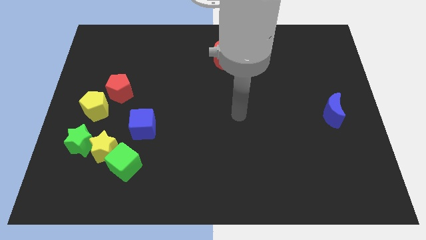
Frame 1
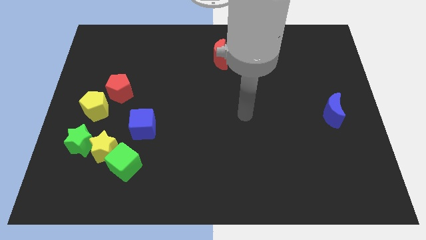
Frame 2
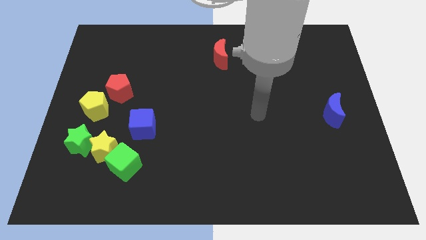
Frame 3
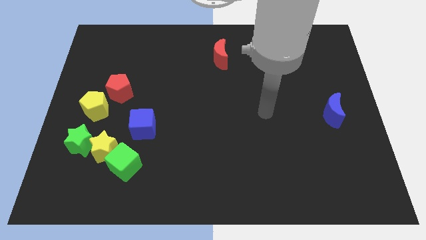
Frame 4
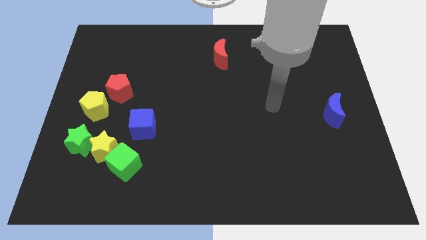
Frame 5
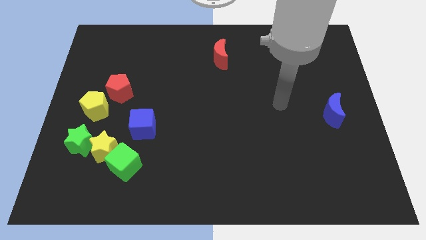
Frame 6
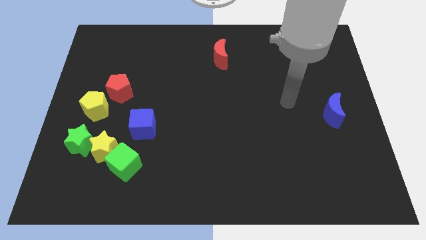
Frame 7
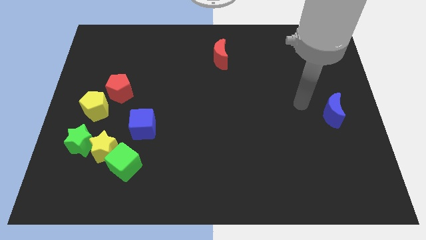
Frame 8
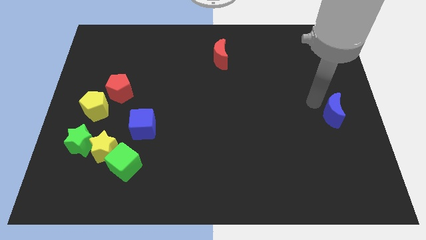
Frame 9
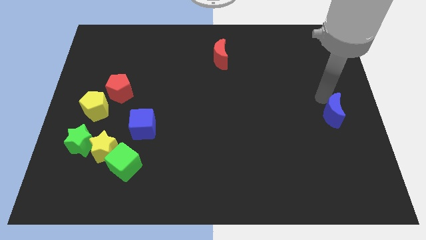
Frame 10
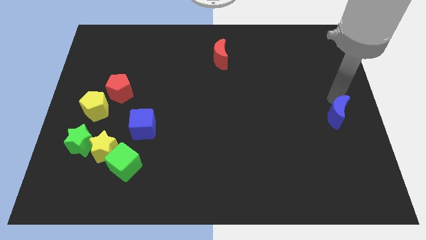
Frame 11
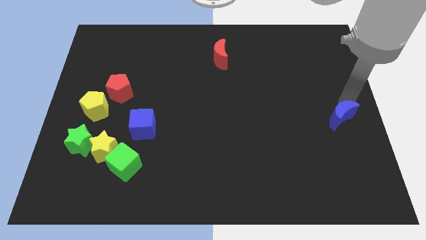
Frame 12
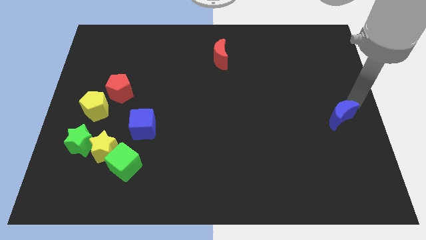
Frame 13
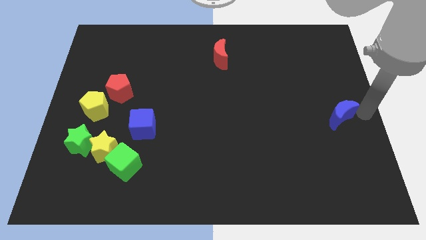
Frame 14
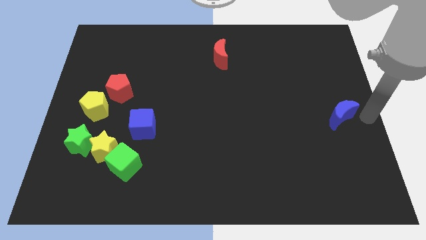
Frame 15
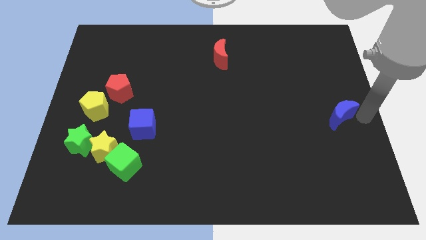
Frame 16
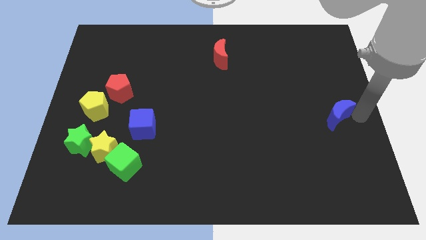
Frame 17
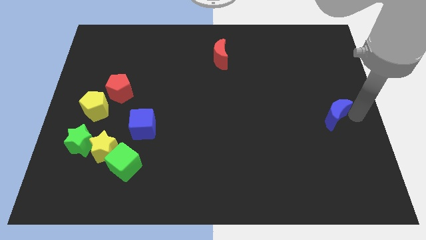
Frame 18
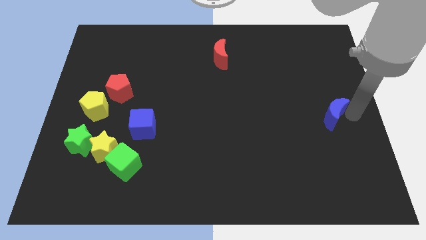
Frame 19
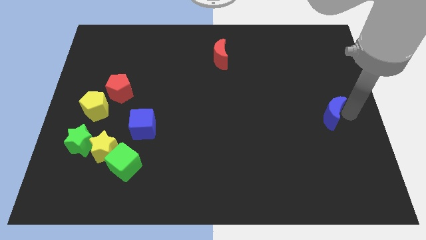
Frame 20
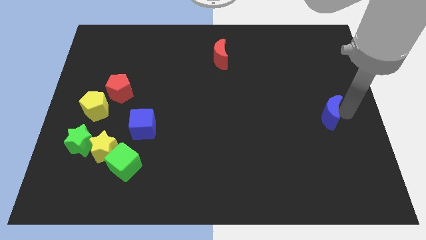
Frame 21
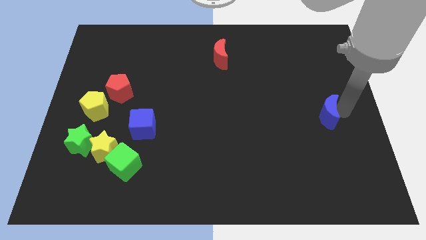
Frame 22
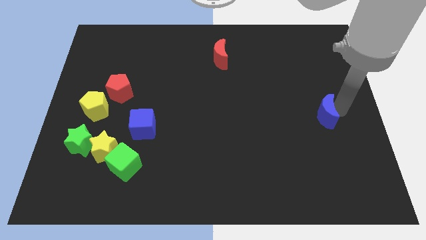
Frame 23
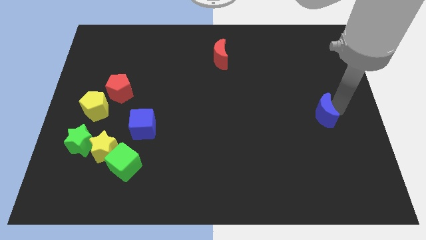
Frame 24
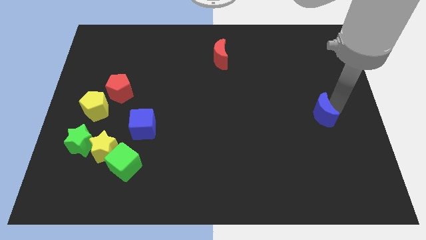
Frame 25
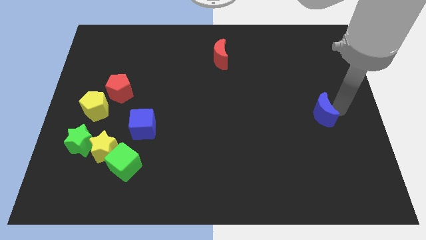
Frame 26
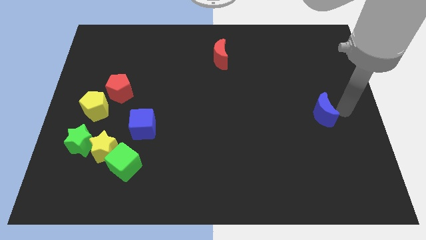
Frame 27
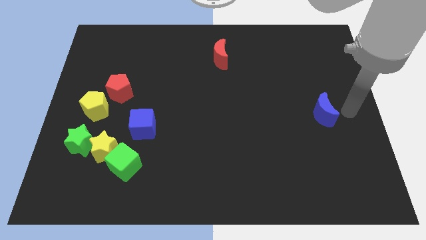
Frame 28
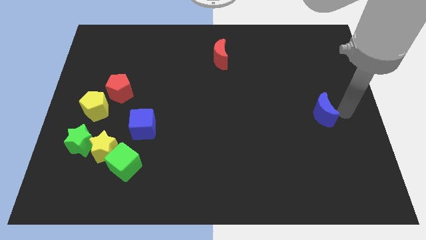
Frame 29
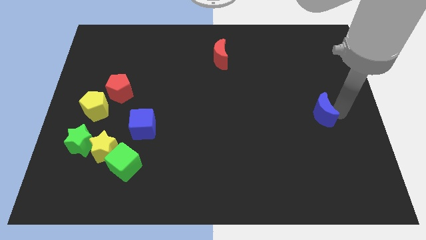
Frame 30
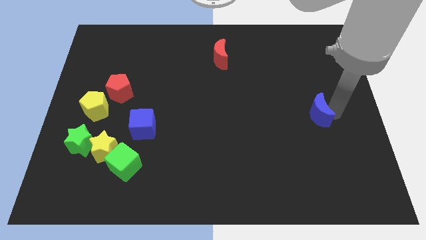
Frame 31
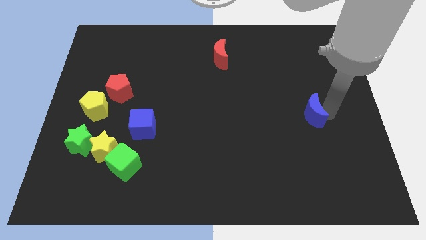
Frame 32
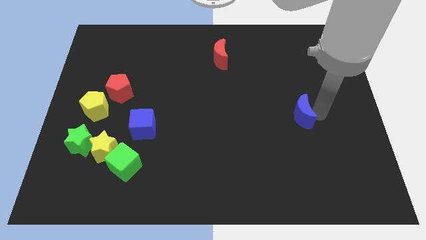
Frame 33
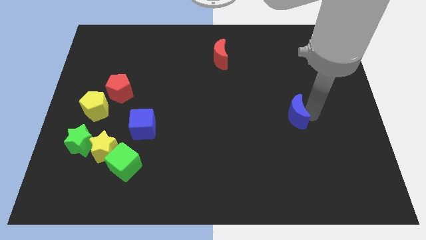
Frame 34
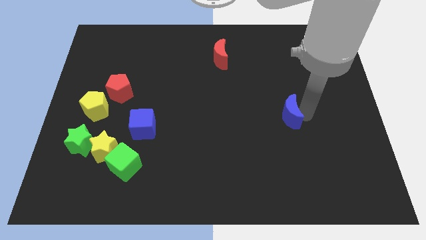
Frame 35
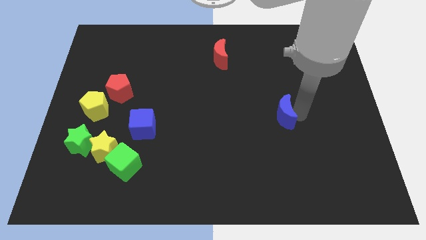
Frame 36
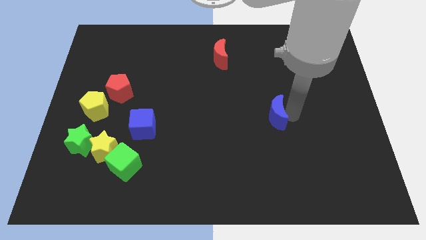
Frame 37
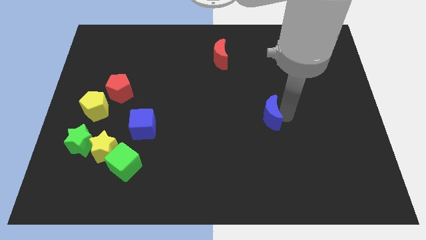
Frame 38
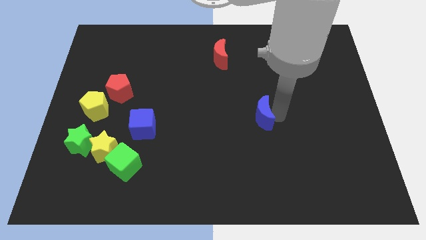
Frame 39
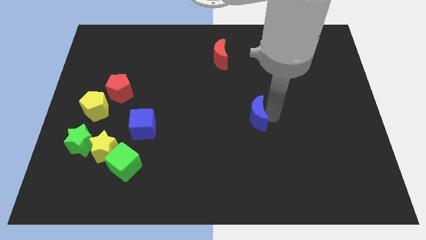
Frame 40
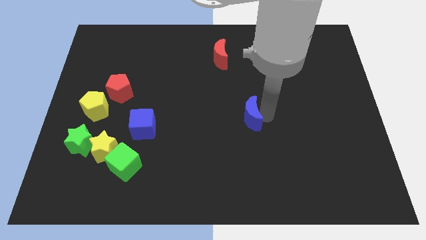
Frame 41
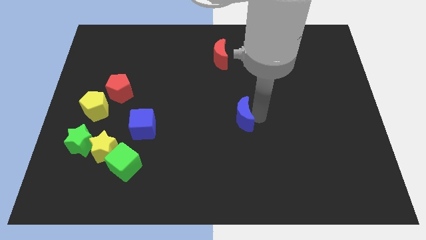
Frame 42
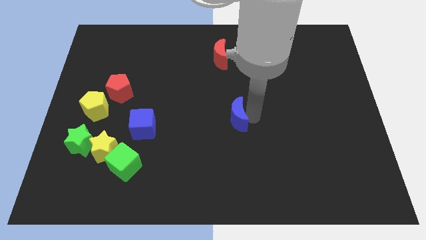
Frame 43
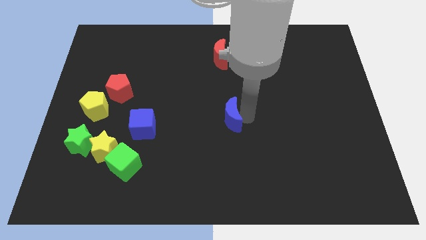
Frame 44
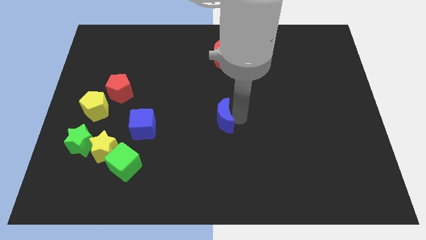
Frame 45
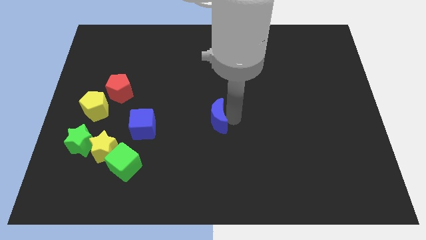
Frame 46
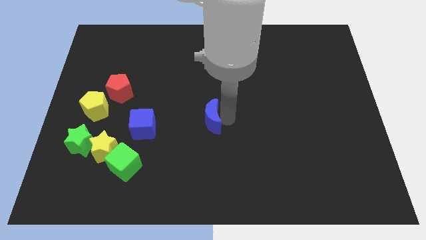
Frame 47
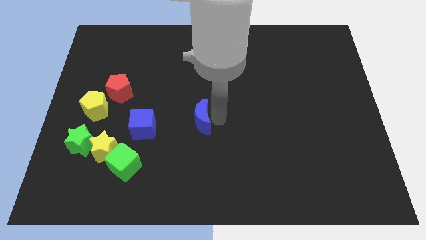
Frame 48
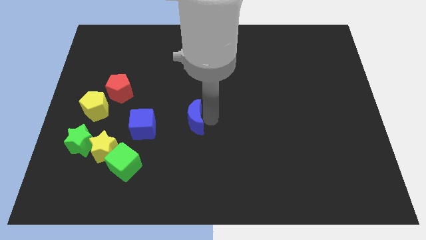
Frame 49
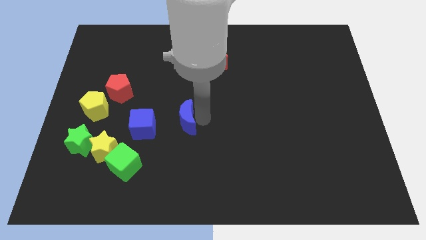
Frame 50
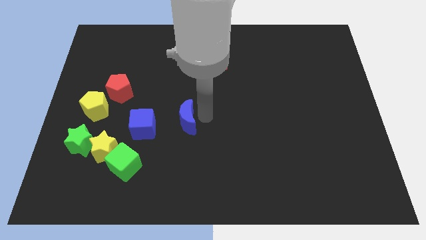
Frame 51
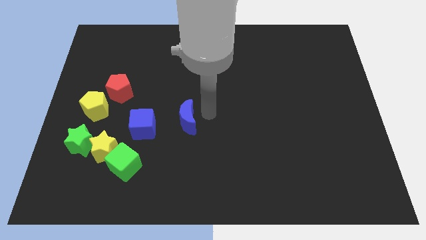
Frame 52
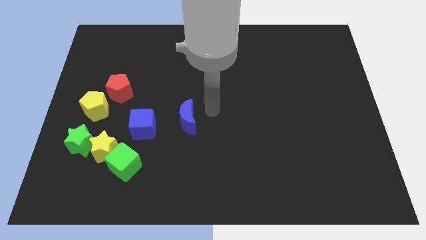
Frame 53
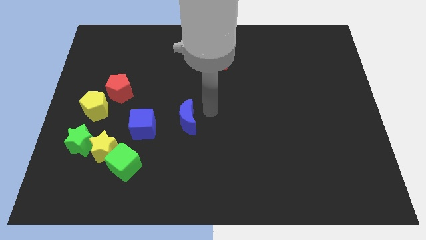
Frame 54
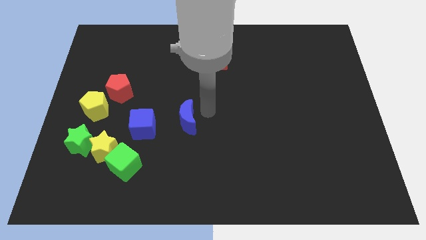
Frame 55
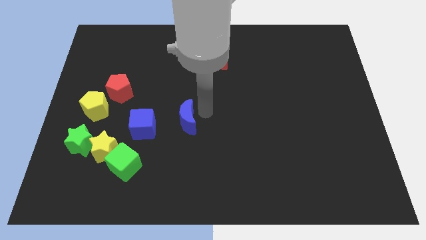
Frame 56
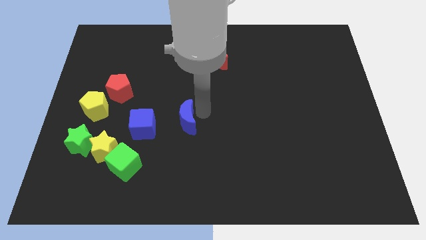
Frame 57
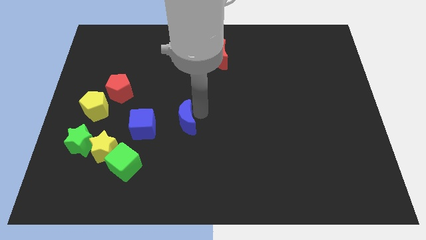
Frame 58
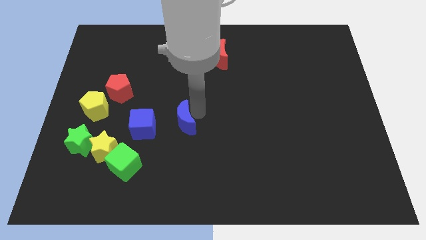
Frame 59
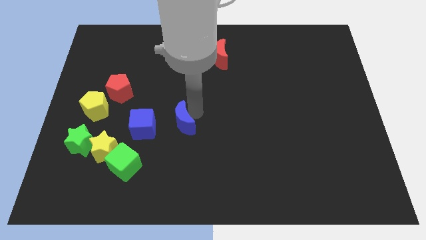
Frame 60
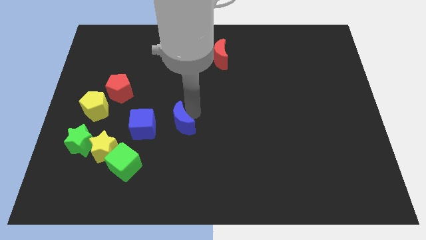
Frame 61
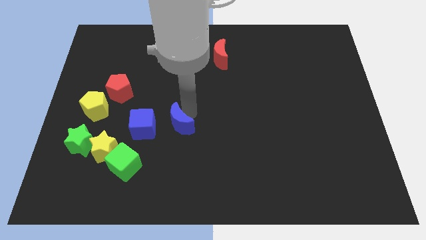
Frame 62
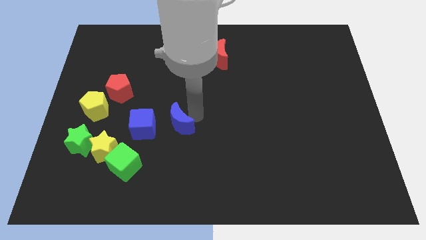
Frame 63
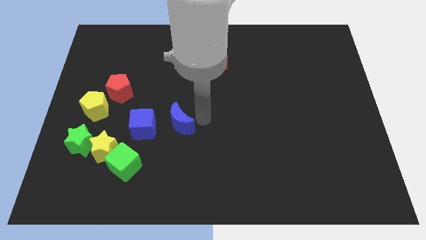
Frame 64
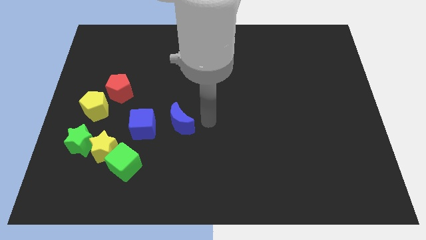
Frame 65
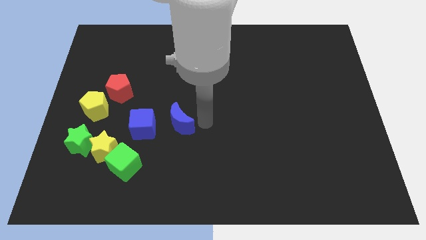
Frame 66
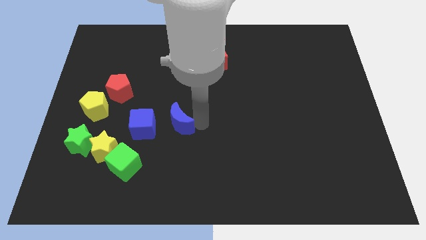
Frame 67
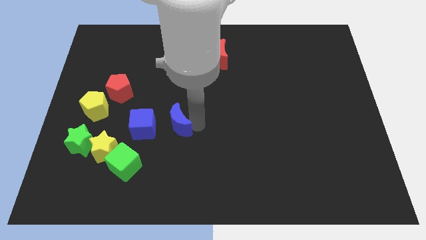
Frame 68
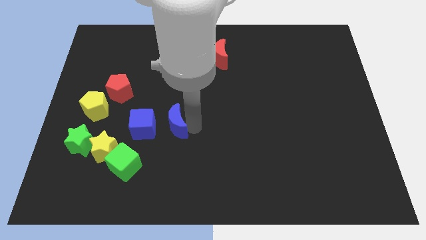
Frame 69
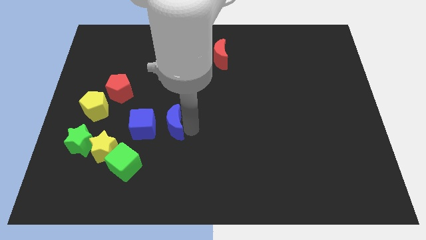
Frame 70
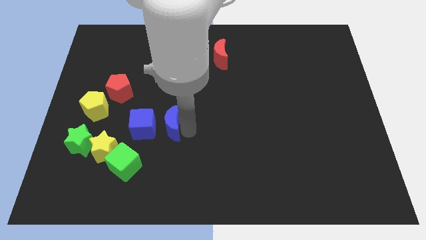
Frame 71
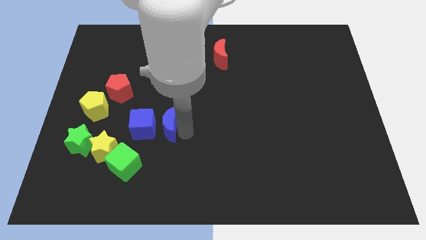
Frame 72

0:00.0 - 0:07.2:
put the blue moon to the blue cube
